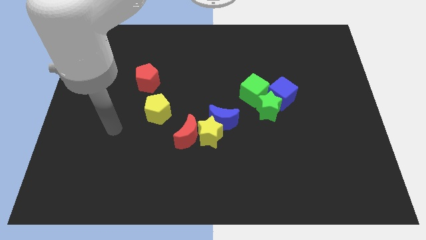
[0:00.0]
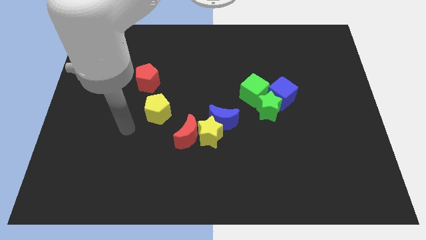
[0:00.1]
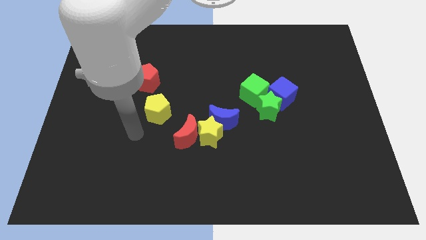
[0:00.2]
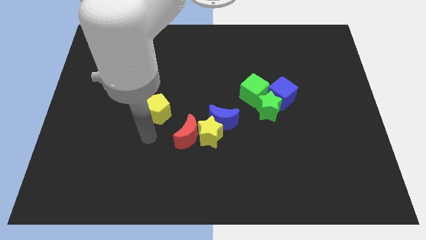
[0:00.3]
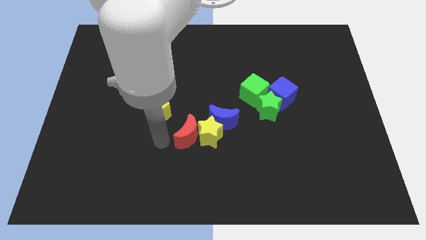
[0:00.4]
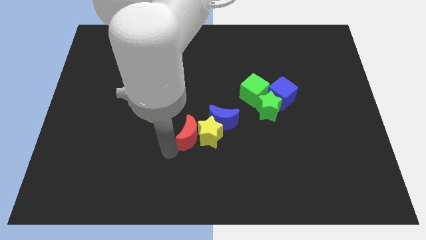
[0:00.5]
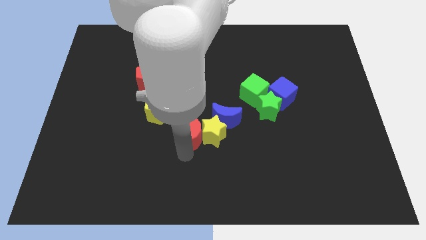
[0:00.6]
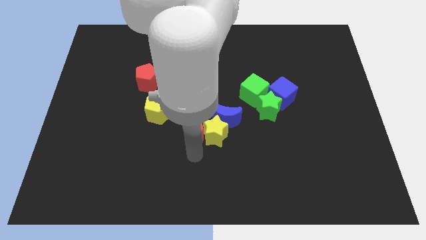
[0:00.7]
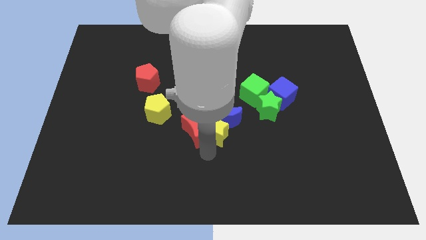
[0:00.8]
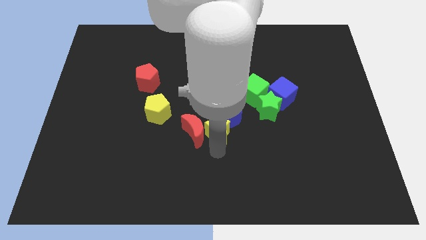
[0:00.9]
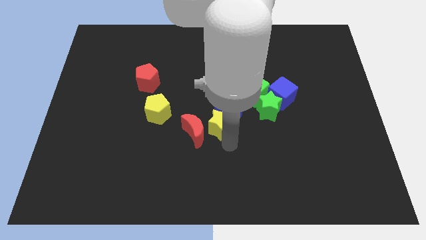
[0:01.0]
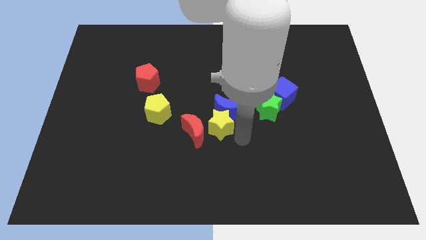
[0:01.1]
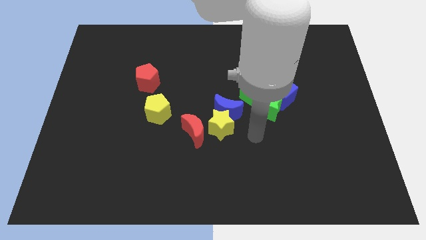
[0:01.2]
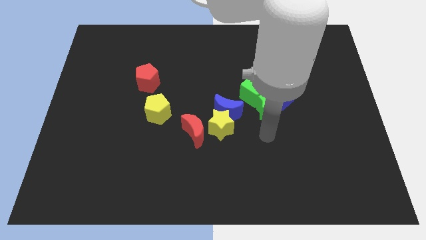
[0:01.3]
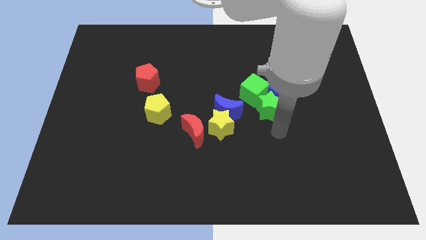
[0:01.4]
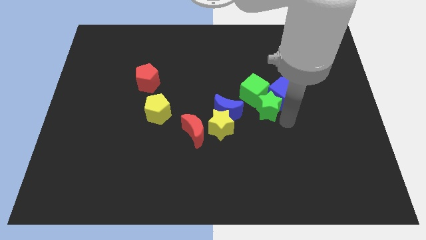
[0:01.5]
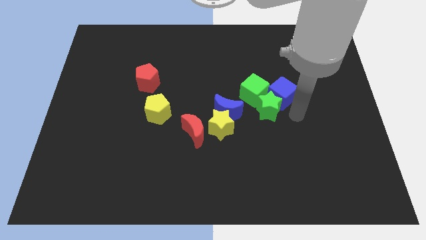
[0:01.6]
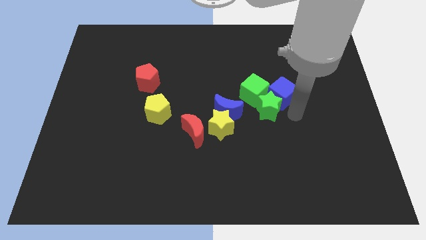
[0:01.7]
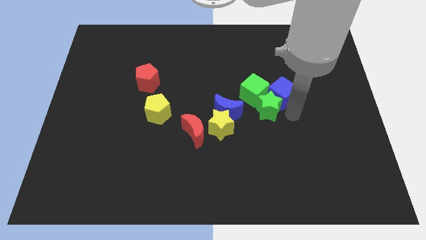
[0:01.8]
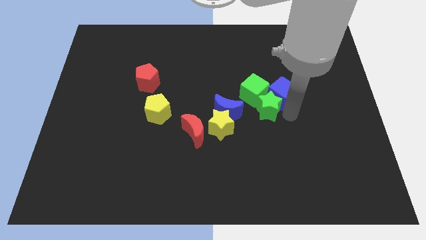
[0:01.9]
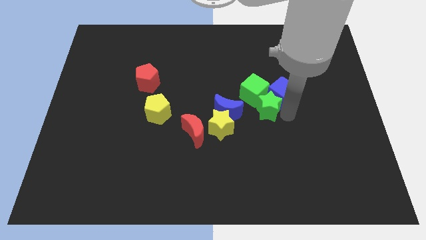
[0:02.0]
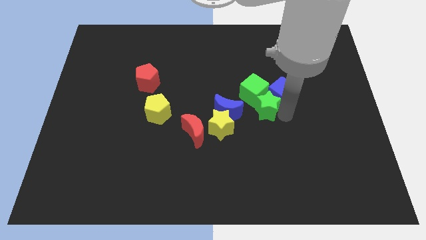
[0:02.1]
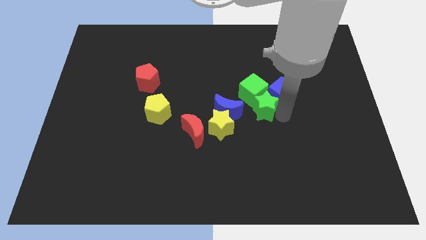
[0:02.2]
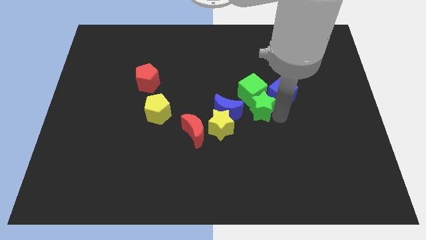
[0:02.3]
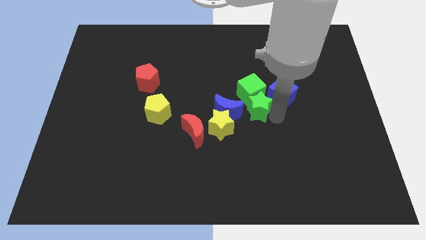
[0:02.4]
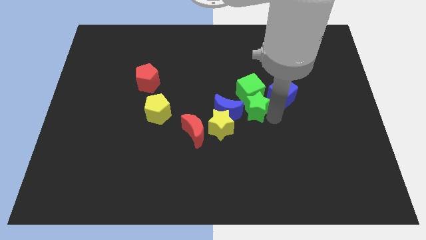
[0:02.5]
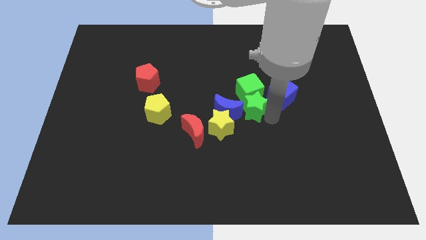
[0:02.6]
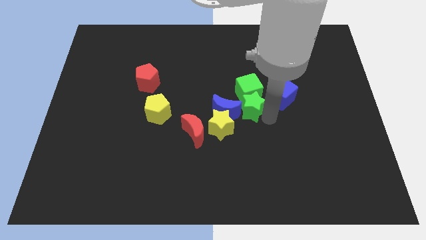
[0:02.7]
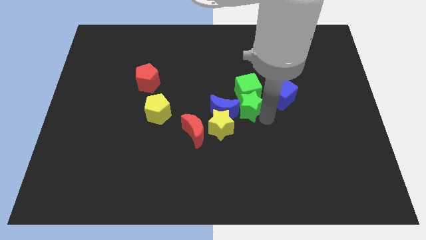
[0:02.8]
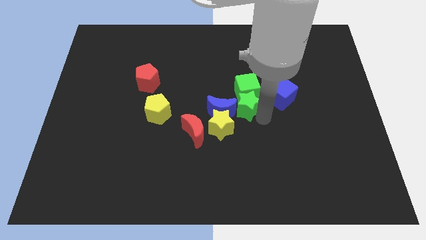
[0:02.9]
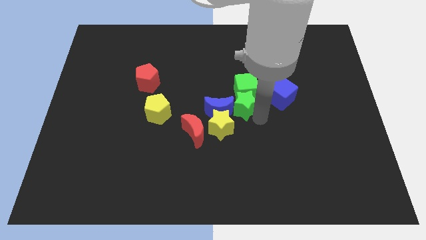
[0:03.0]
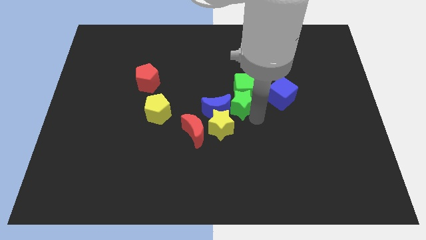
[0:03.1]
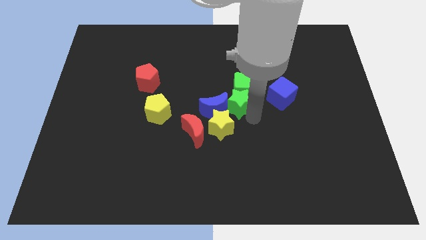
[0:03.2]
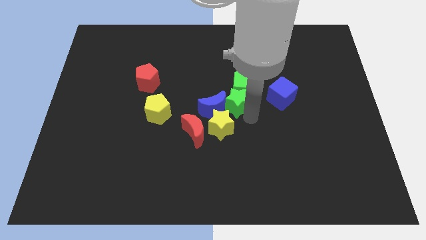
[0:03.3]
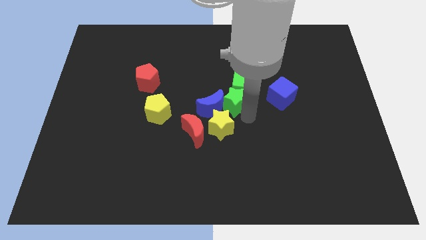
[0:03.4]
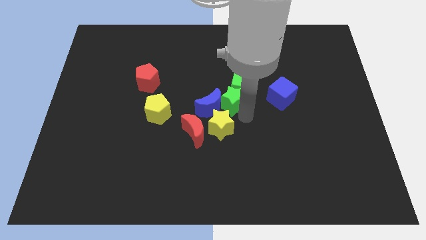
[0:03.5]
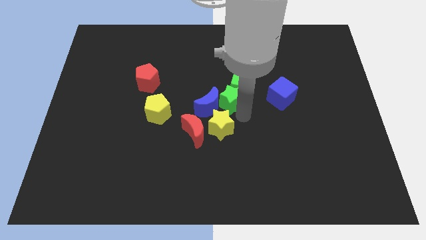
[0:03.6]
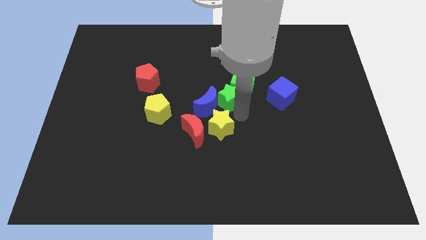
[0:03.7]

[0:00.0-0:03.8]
slightly slide the green star diagonally upwards and left

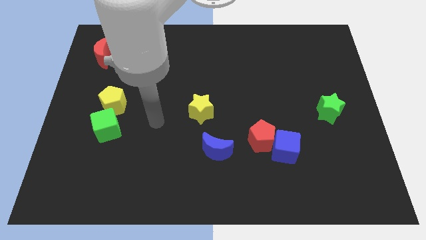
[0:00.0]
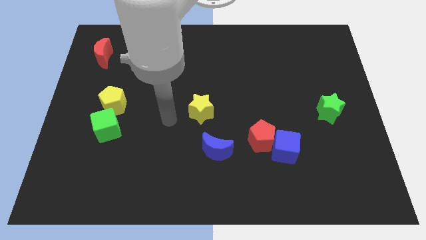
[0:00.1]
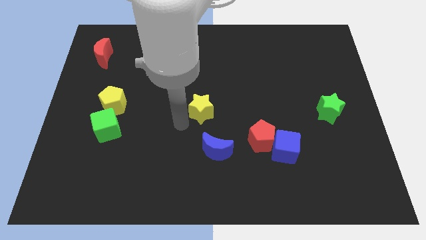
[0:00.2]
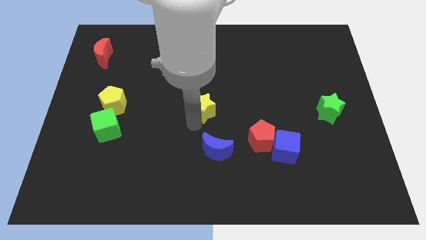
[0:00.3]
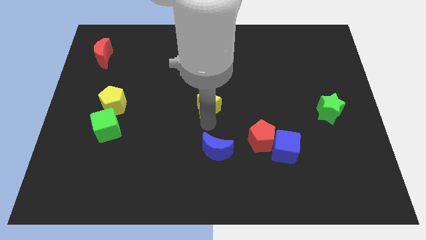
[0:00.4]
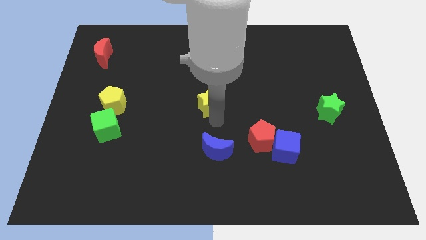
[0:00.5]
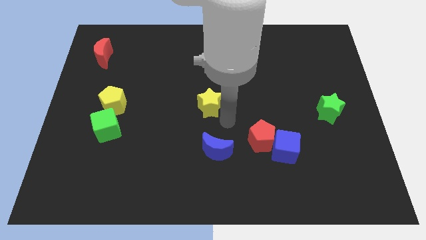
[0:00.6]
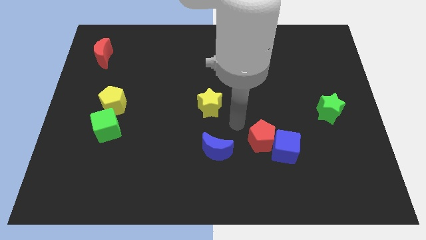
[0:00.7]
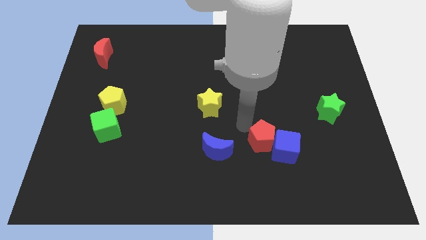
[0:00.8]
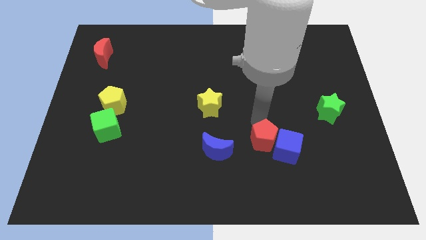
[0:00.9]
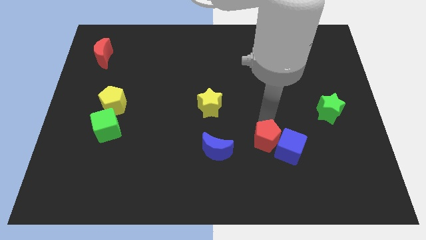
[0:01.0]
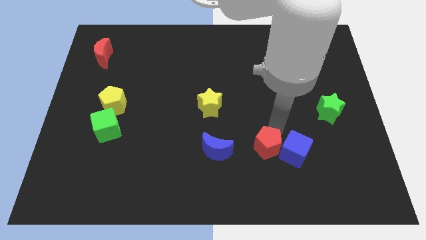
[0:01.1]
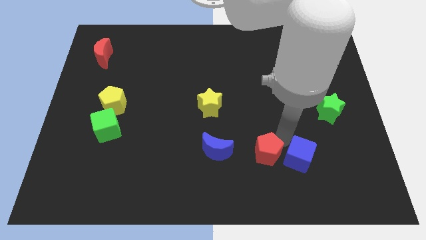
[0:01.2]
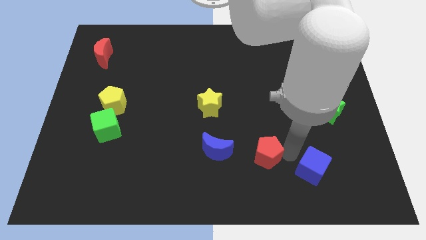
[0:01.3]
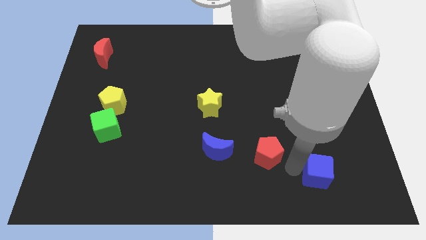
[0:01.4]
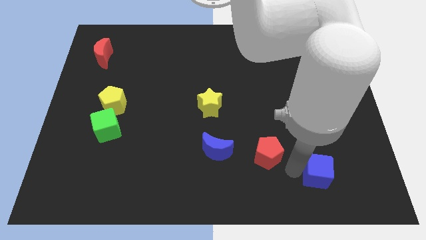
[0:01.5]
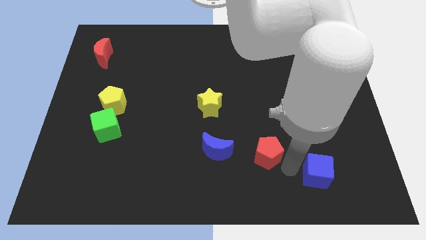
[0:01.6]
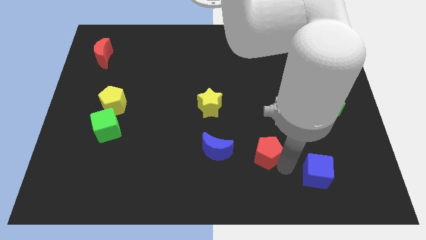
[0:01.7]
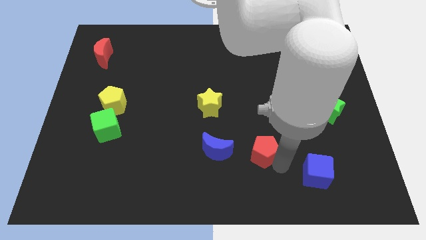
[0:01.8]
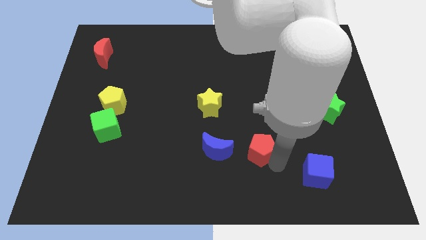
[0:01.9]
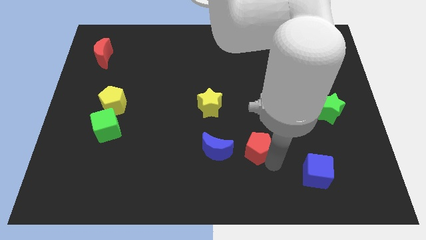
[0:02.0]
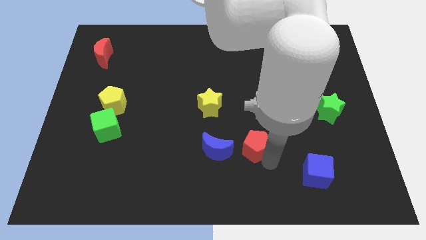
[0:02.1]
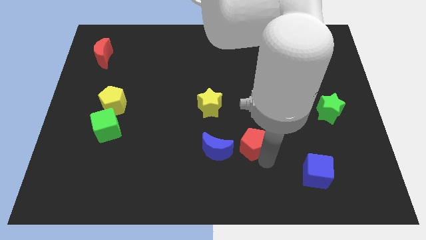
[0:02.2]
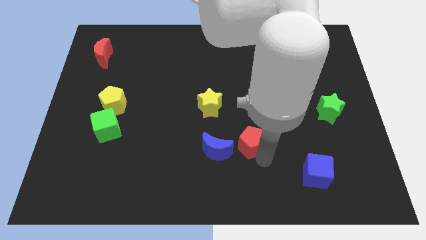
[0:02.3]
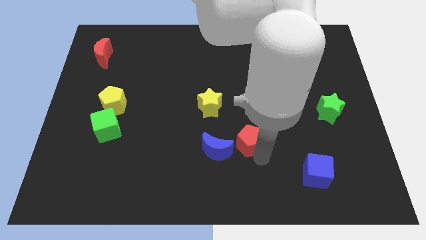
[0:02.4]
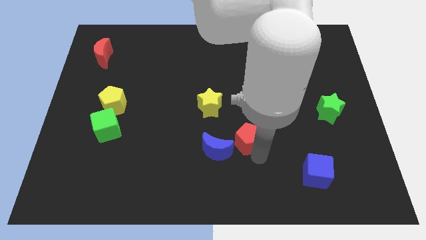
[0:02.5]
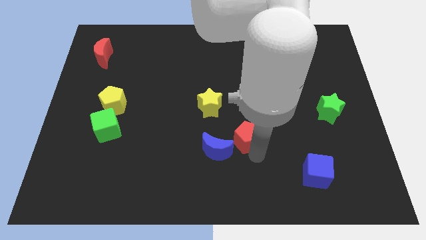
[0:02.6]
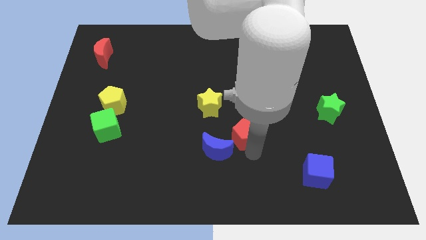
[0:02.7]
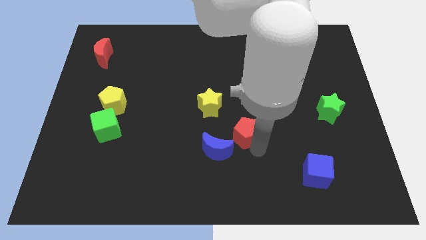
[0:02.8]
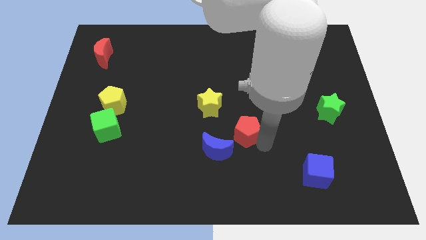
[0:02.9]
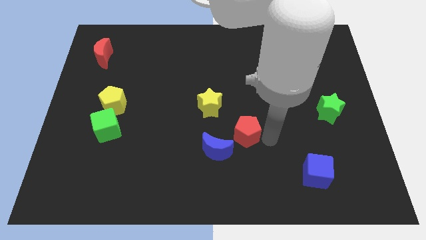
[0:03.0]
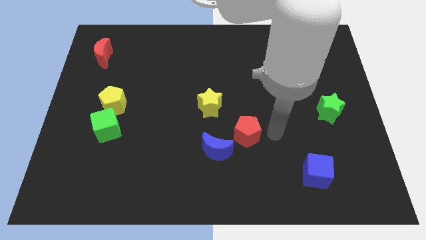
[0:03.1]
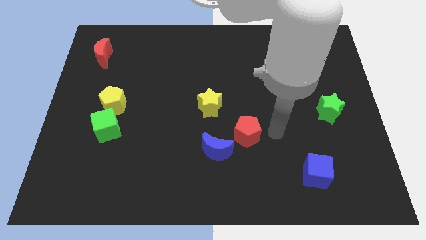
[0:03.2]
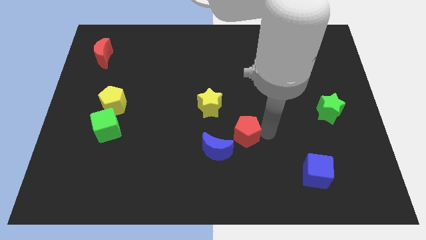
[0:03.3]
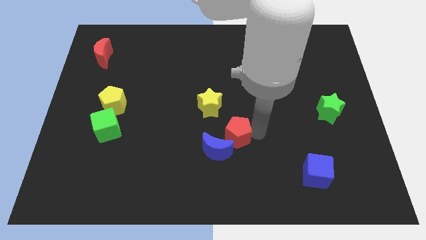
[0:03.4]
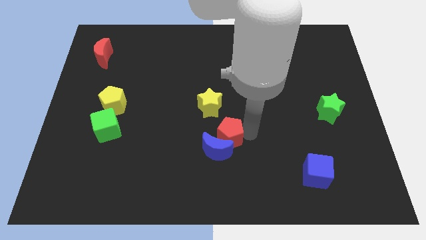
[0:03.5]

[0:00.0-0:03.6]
move the red pentagon left a little

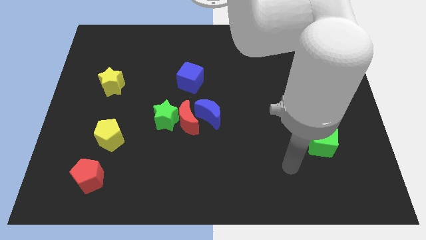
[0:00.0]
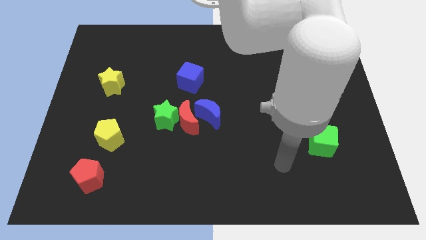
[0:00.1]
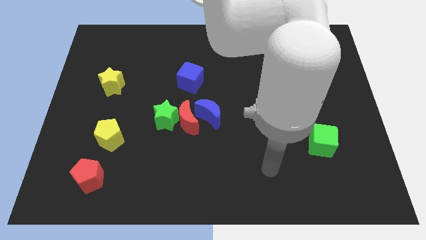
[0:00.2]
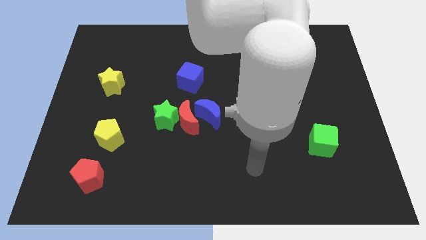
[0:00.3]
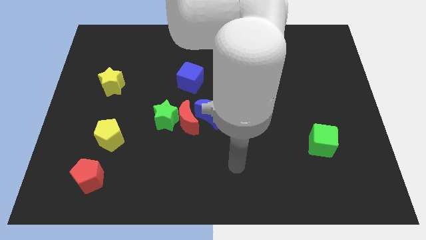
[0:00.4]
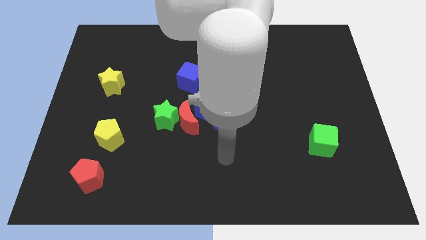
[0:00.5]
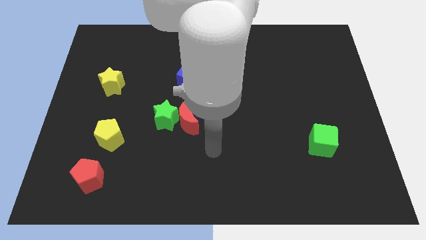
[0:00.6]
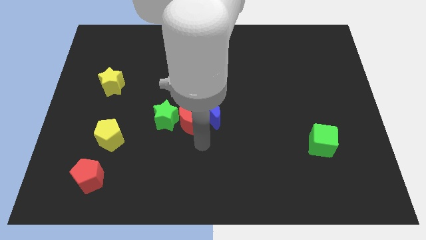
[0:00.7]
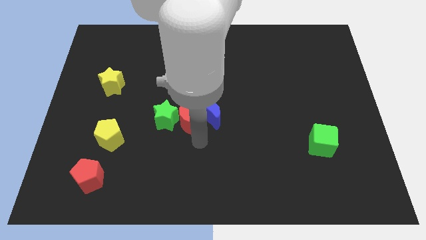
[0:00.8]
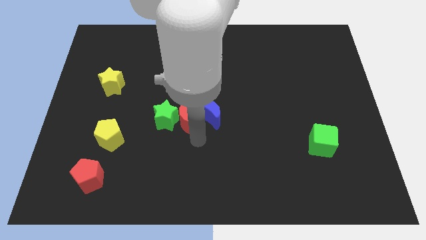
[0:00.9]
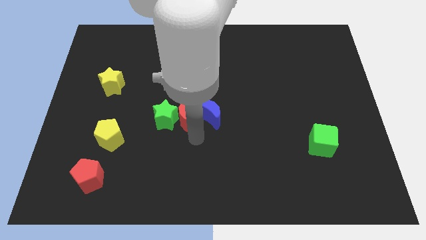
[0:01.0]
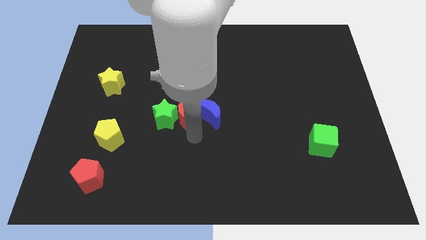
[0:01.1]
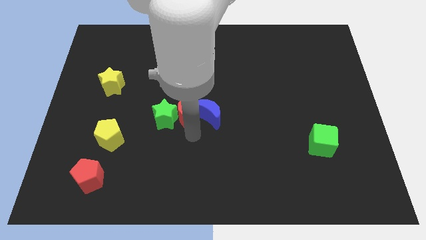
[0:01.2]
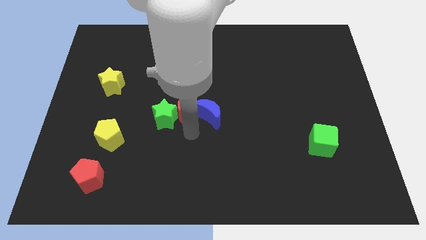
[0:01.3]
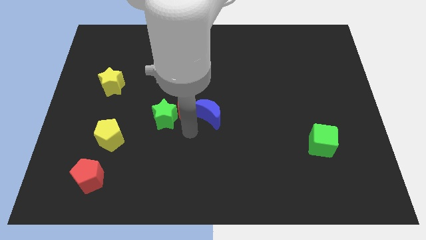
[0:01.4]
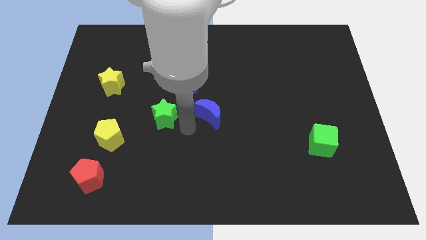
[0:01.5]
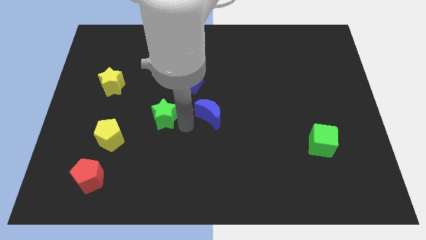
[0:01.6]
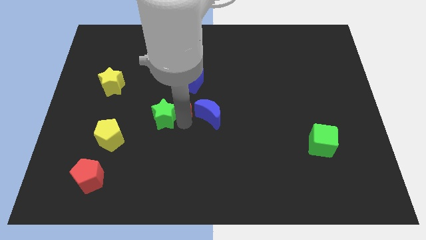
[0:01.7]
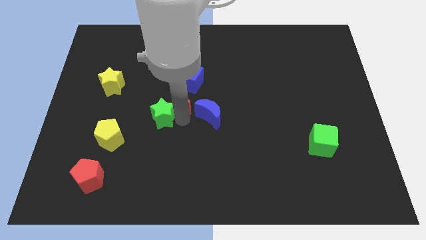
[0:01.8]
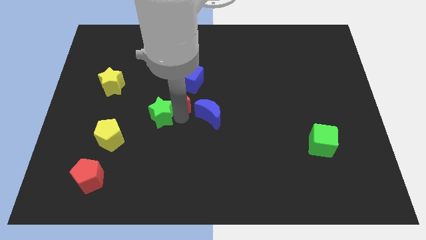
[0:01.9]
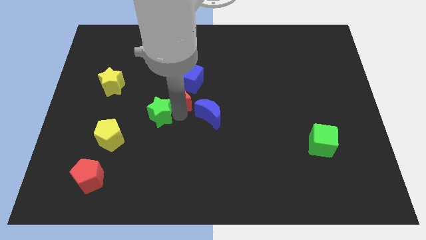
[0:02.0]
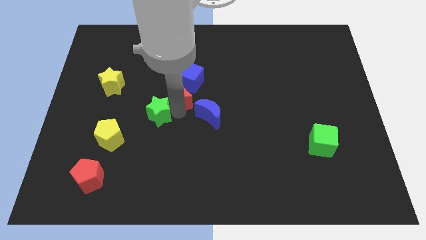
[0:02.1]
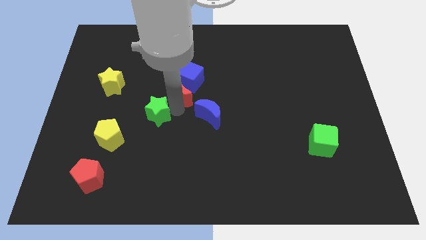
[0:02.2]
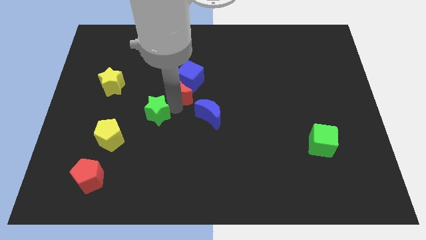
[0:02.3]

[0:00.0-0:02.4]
push the red moon somewhat up and to the left diagonally
